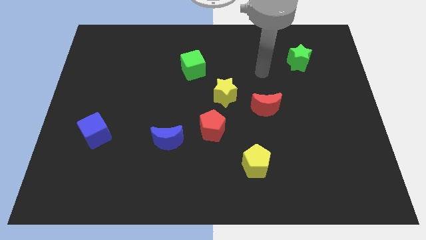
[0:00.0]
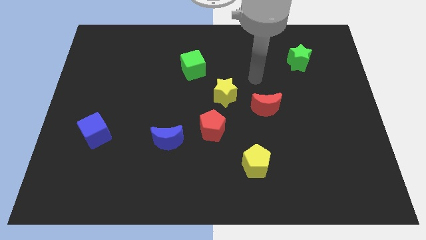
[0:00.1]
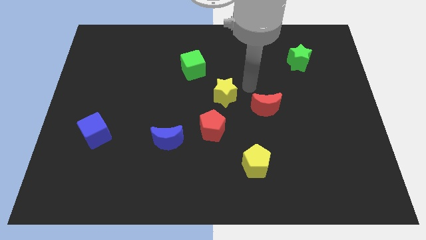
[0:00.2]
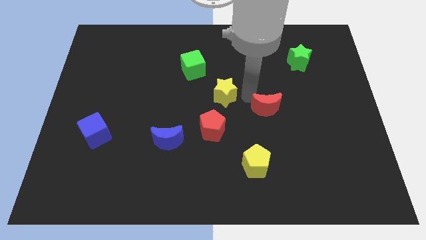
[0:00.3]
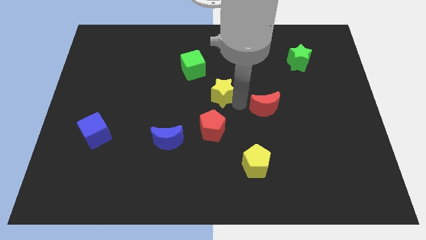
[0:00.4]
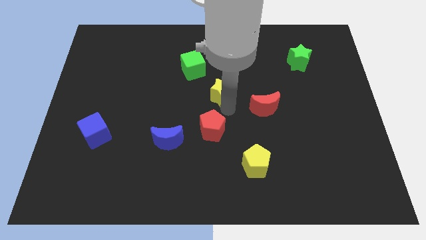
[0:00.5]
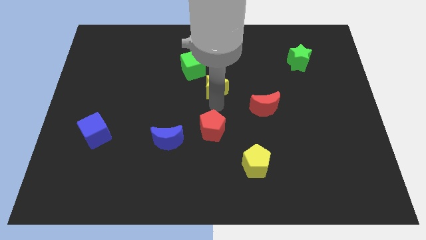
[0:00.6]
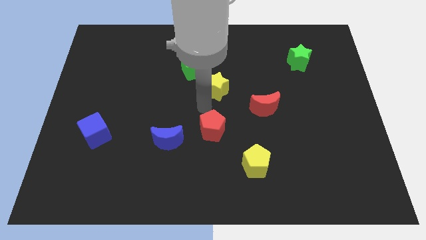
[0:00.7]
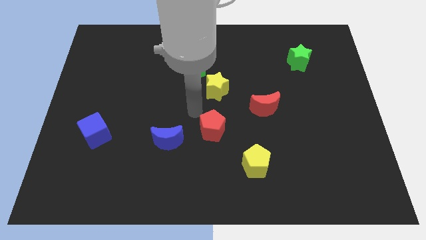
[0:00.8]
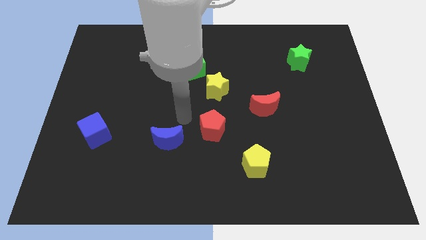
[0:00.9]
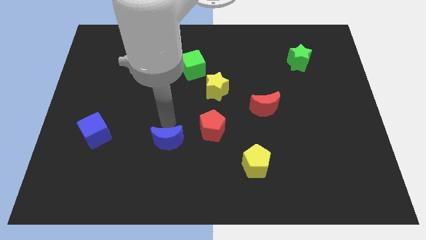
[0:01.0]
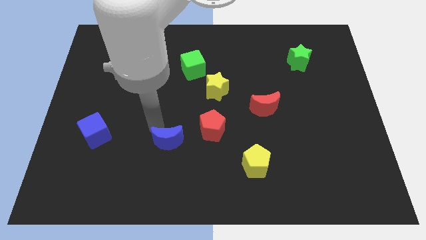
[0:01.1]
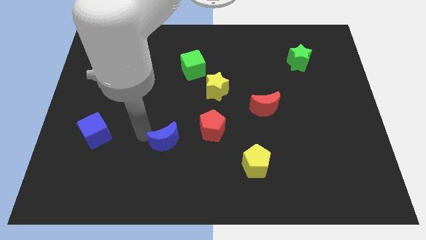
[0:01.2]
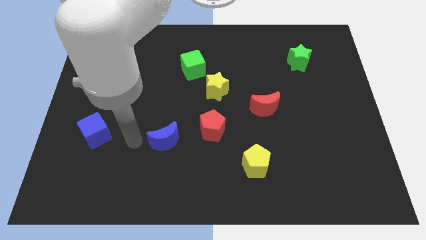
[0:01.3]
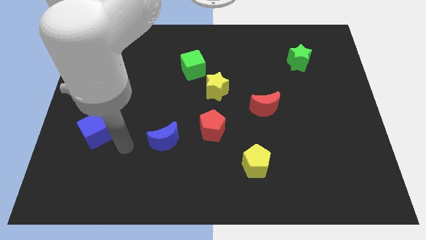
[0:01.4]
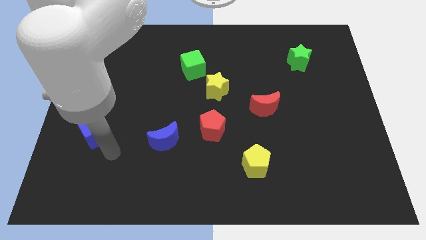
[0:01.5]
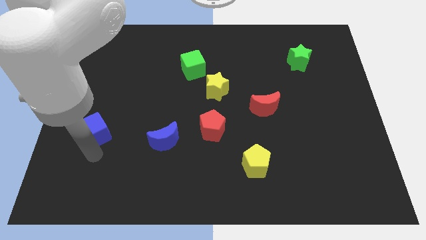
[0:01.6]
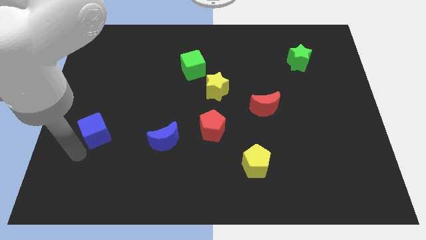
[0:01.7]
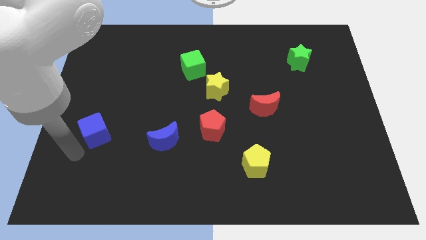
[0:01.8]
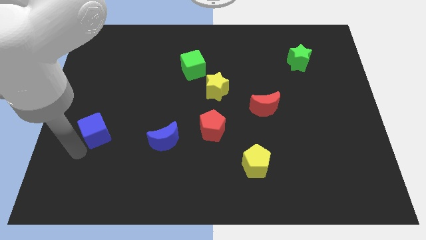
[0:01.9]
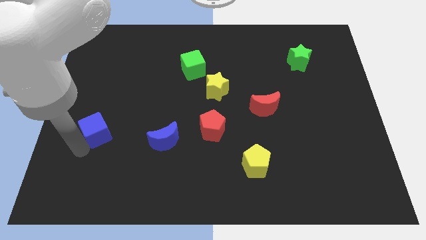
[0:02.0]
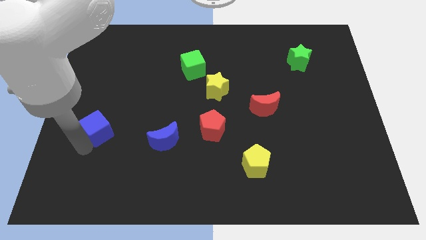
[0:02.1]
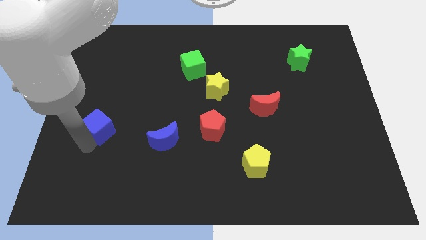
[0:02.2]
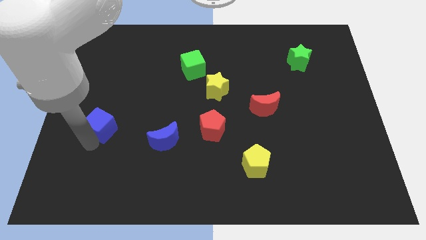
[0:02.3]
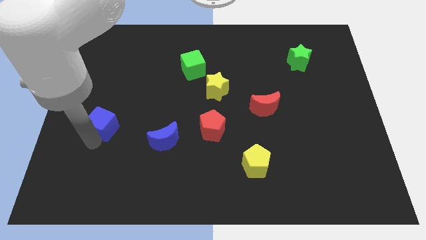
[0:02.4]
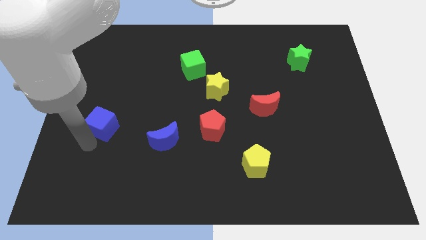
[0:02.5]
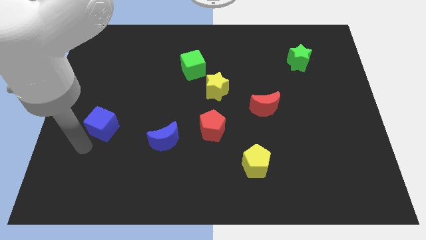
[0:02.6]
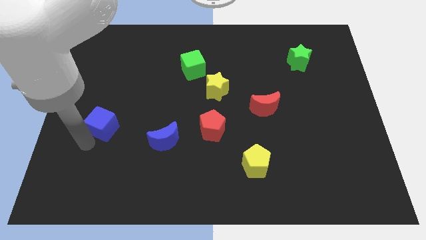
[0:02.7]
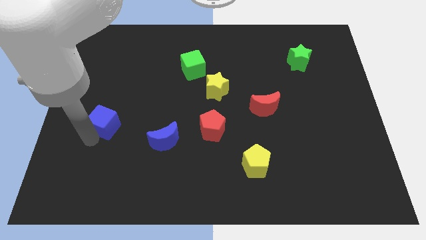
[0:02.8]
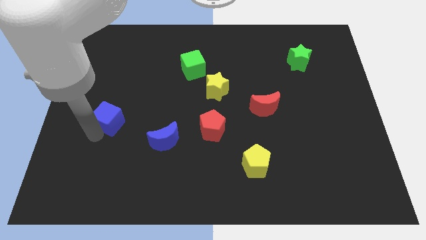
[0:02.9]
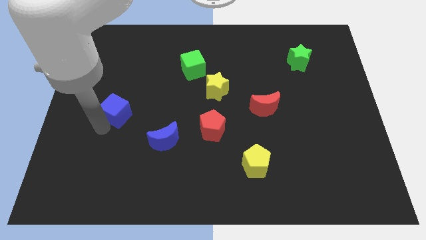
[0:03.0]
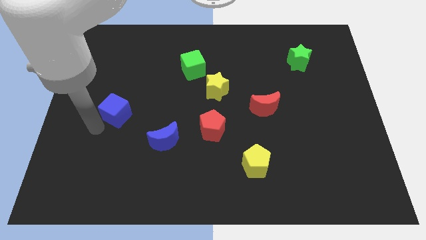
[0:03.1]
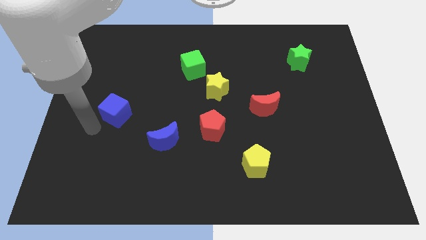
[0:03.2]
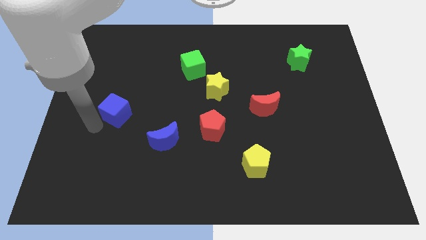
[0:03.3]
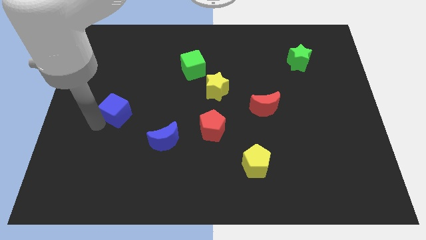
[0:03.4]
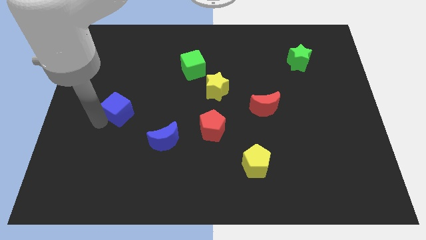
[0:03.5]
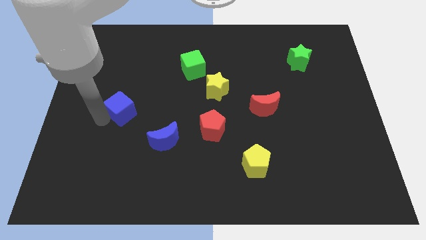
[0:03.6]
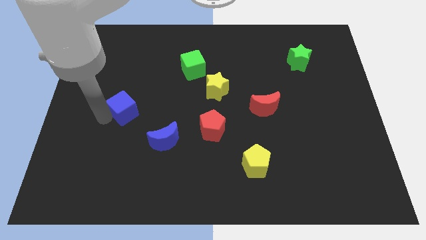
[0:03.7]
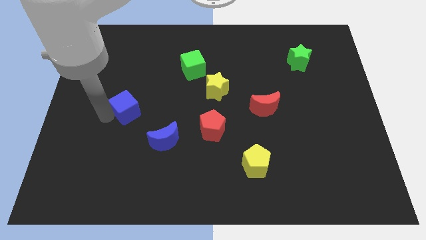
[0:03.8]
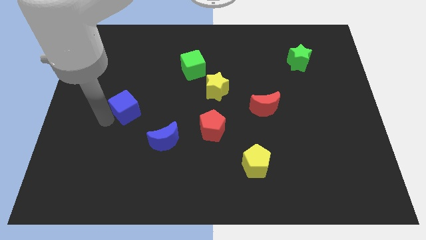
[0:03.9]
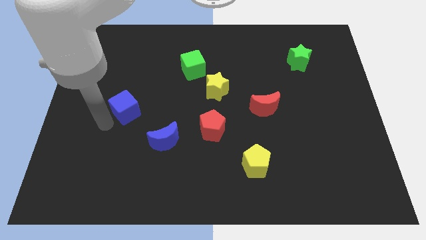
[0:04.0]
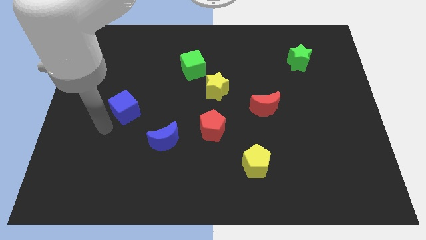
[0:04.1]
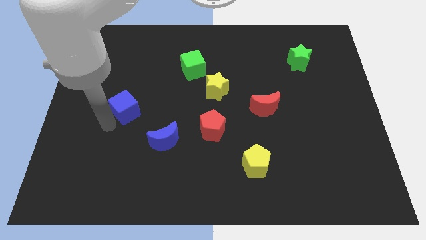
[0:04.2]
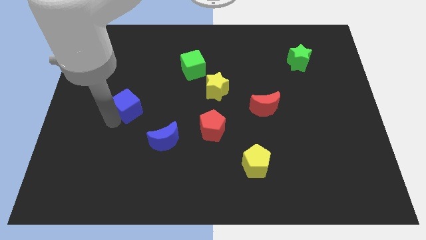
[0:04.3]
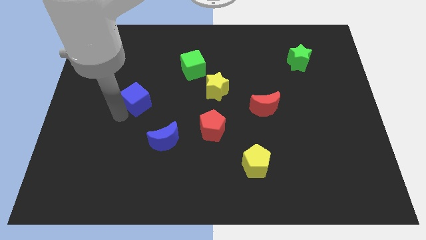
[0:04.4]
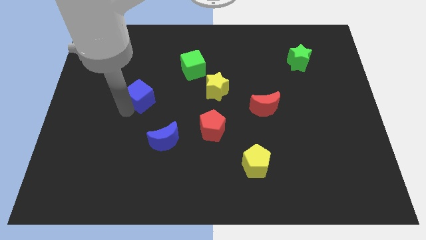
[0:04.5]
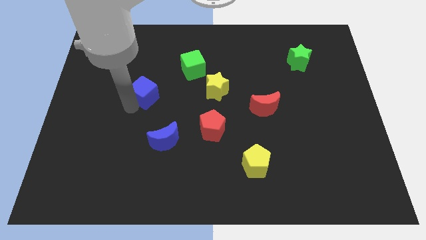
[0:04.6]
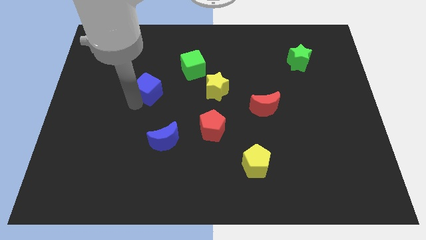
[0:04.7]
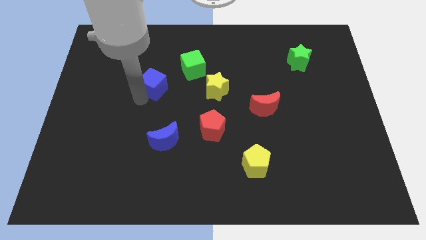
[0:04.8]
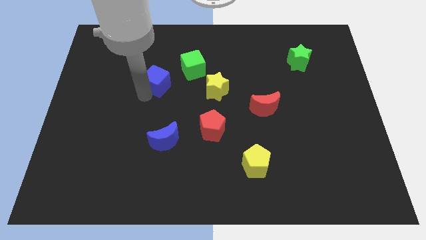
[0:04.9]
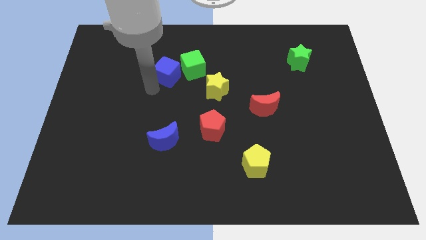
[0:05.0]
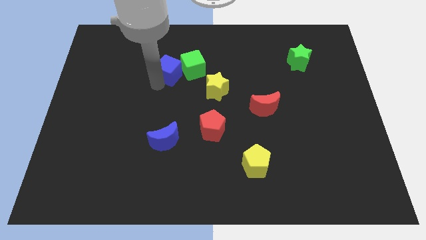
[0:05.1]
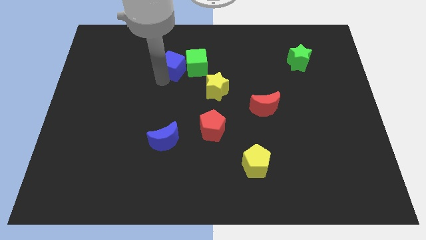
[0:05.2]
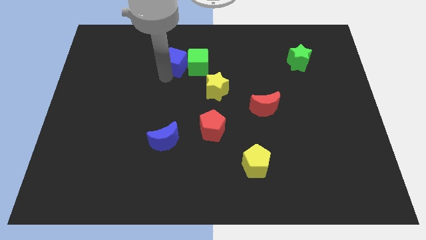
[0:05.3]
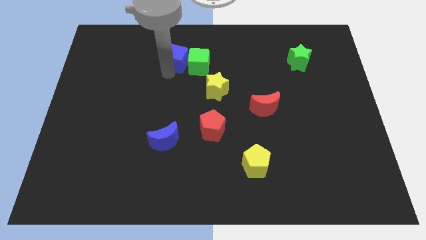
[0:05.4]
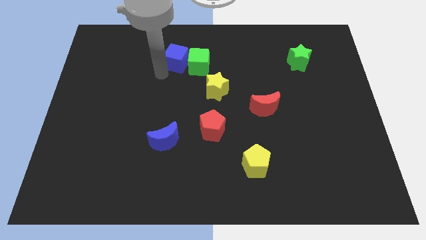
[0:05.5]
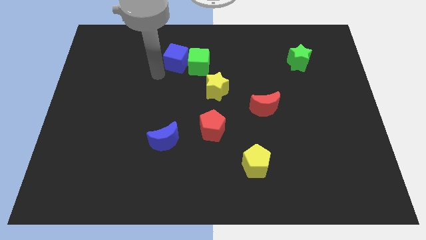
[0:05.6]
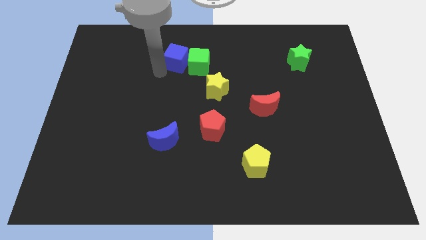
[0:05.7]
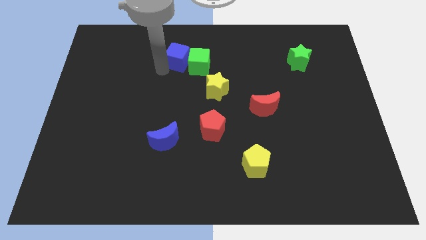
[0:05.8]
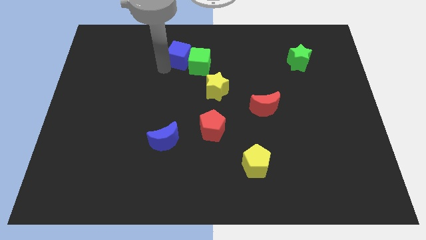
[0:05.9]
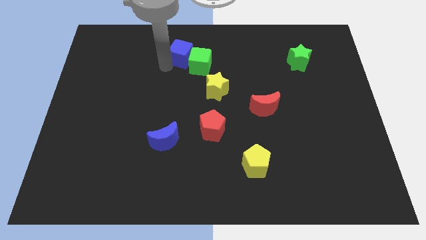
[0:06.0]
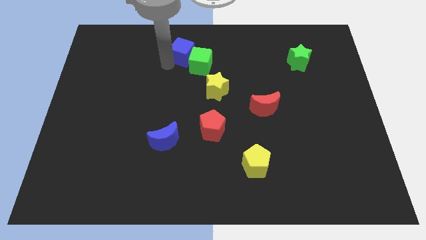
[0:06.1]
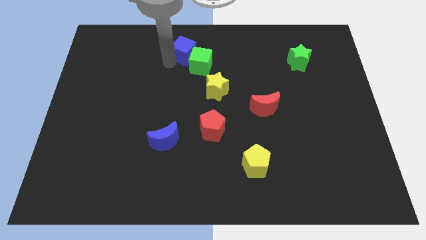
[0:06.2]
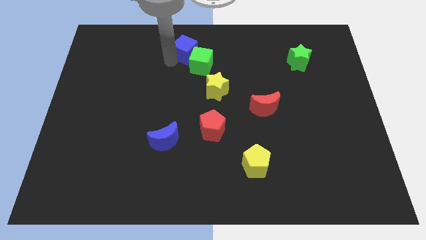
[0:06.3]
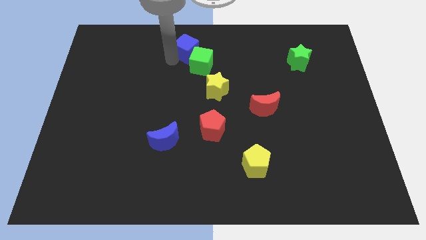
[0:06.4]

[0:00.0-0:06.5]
slide the blue cube to the top

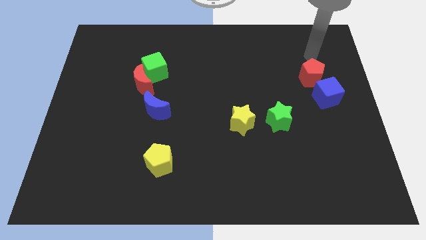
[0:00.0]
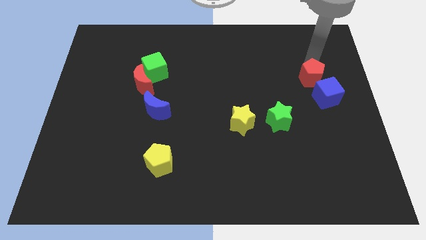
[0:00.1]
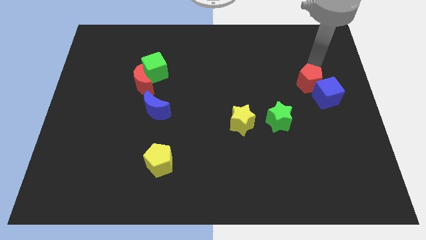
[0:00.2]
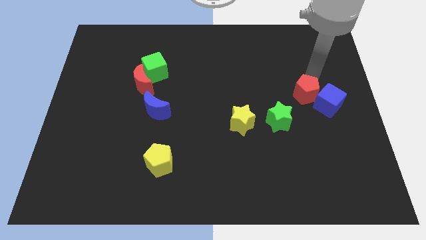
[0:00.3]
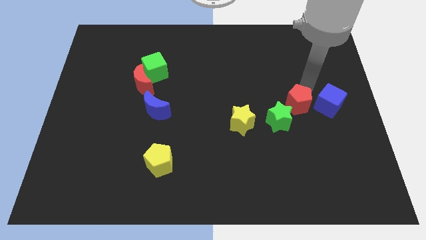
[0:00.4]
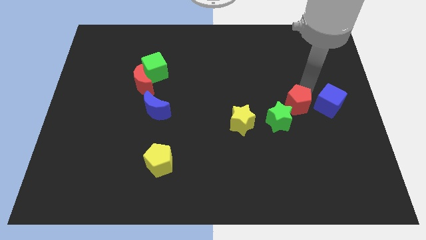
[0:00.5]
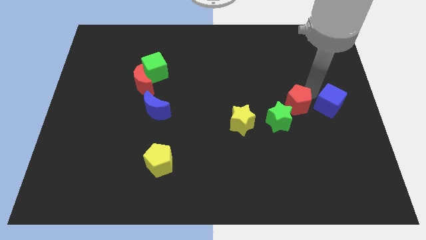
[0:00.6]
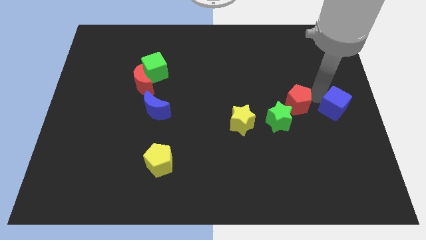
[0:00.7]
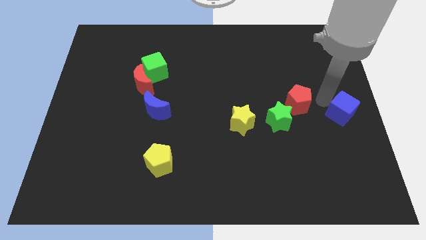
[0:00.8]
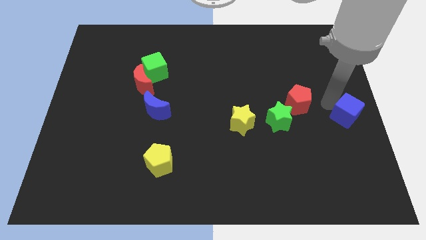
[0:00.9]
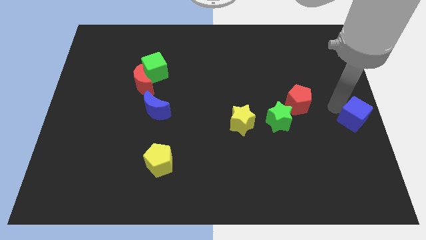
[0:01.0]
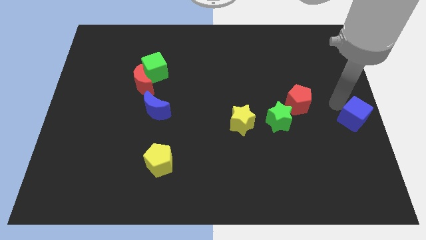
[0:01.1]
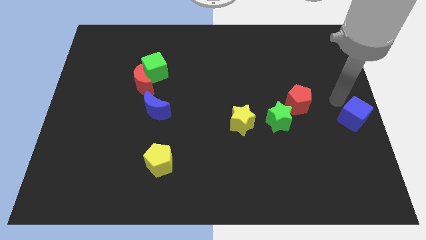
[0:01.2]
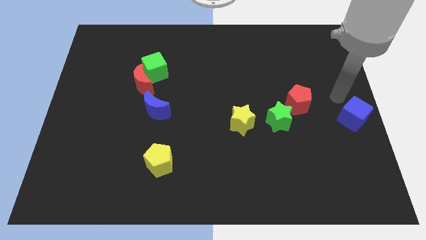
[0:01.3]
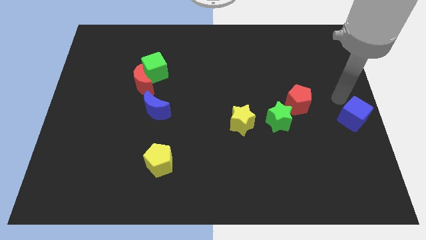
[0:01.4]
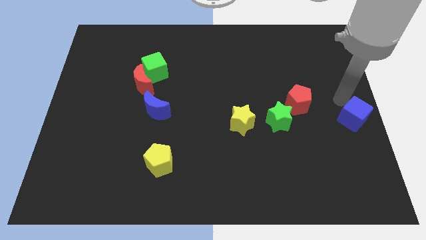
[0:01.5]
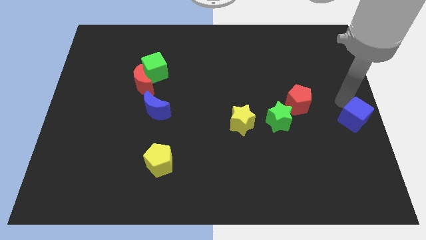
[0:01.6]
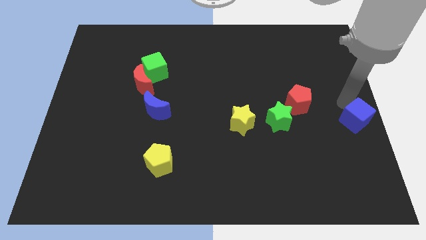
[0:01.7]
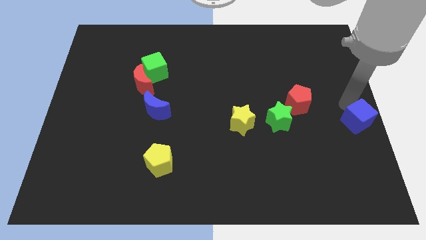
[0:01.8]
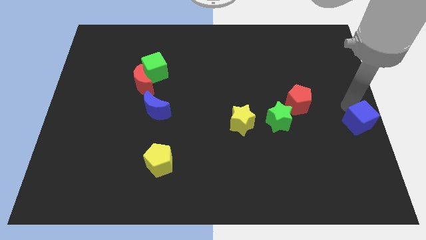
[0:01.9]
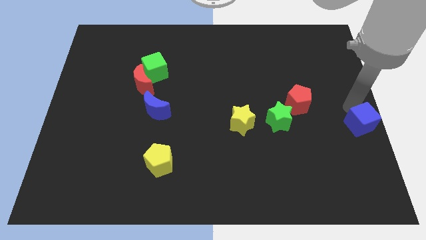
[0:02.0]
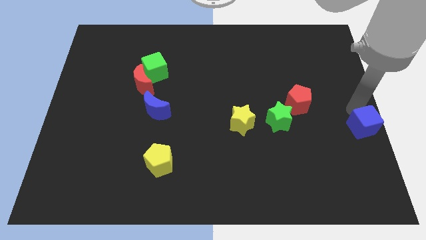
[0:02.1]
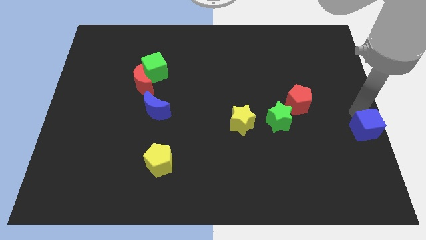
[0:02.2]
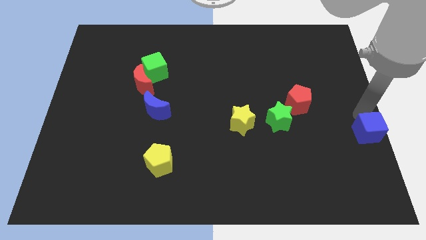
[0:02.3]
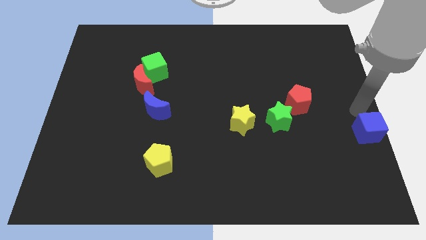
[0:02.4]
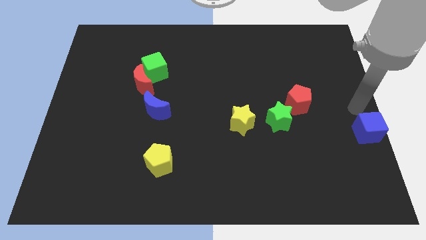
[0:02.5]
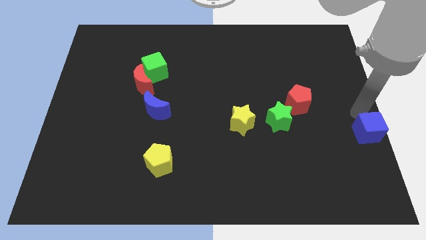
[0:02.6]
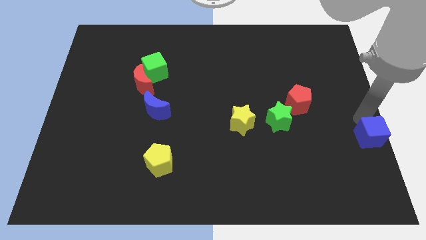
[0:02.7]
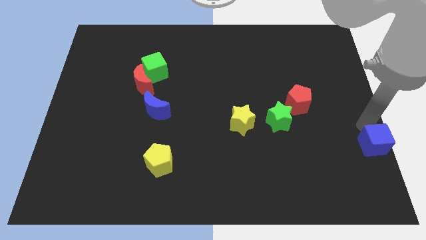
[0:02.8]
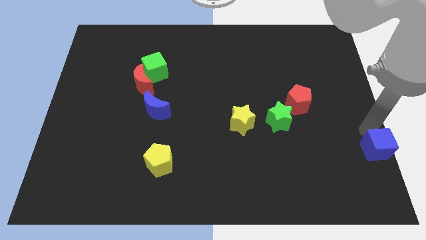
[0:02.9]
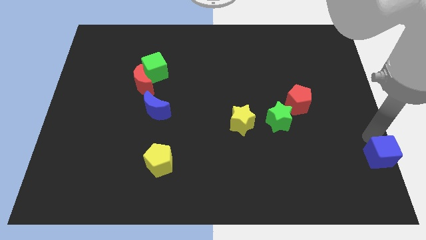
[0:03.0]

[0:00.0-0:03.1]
move the blue cube to the bottom right
